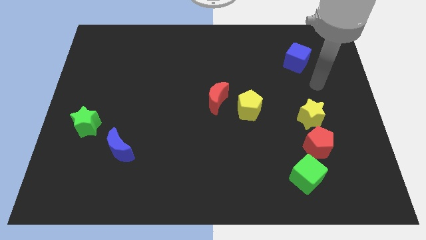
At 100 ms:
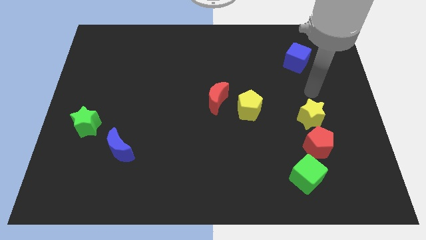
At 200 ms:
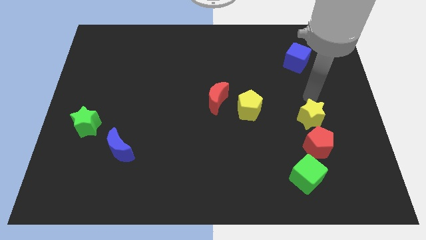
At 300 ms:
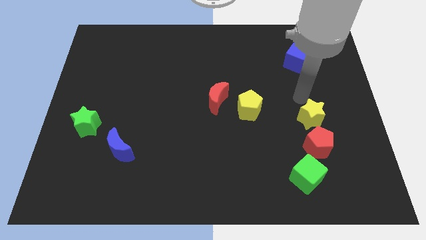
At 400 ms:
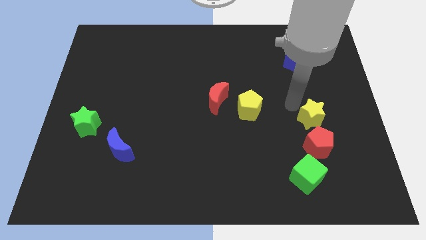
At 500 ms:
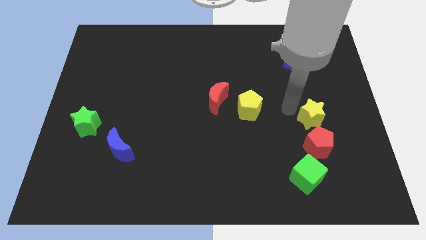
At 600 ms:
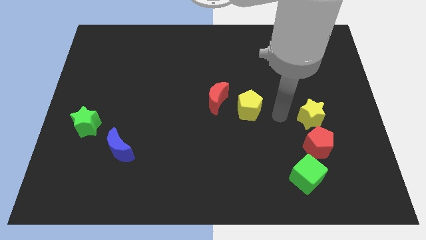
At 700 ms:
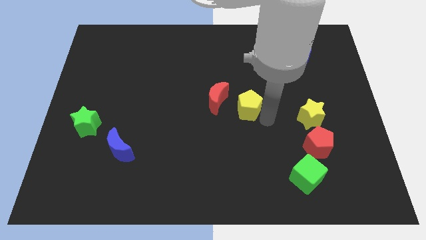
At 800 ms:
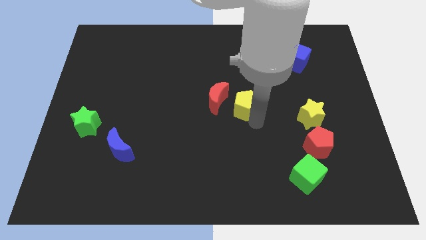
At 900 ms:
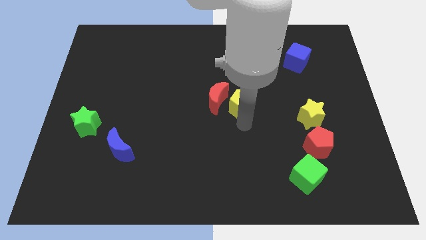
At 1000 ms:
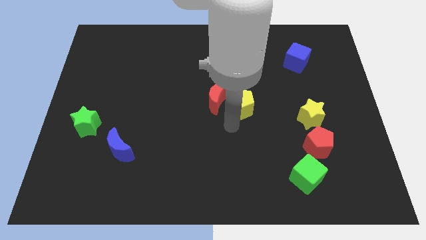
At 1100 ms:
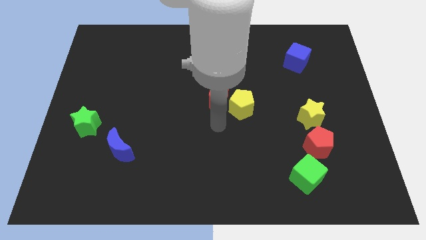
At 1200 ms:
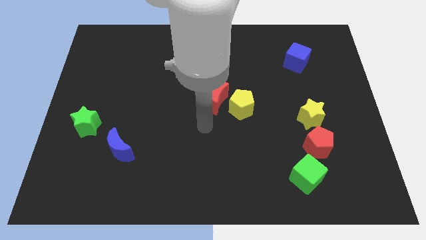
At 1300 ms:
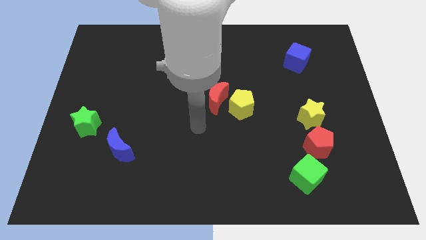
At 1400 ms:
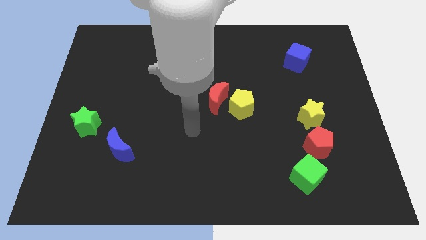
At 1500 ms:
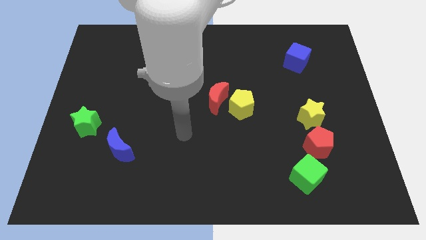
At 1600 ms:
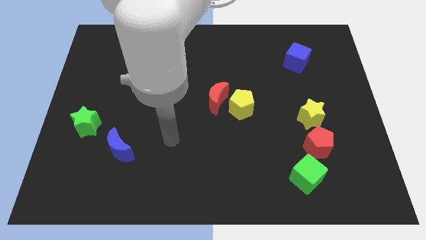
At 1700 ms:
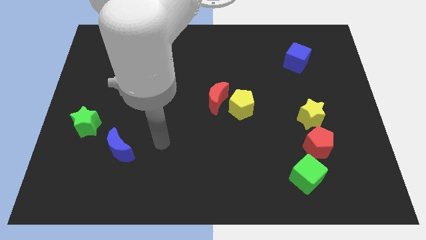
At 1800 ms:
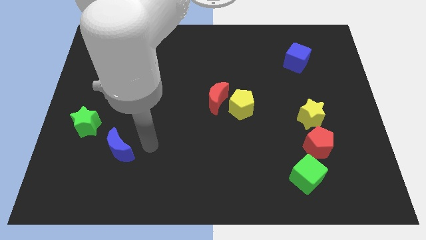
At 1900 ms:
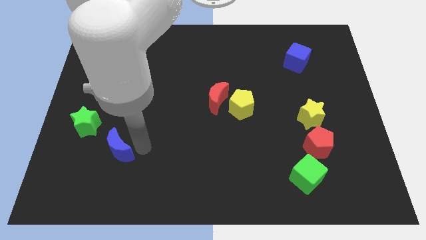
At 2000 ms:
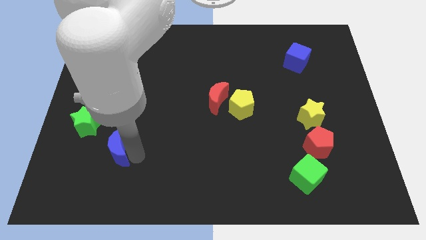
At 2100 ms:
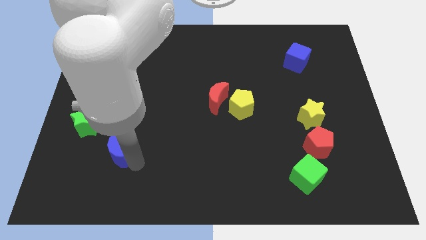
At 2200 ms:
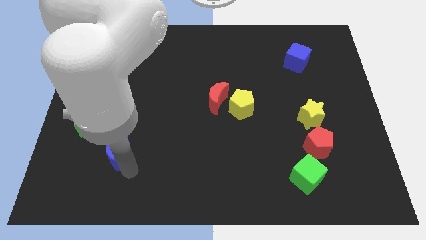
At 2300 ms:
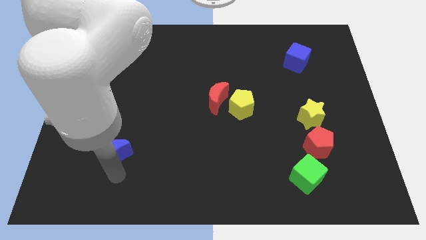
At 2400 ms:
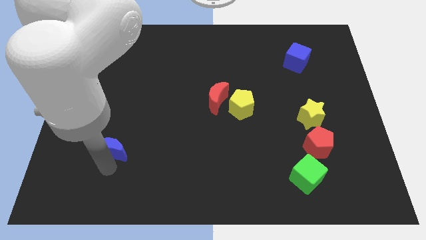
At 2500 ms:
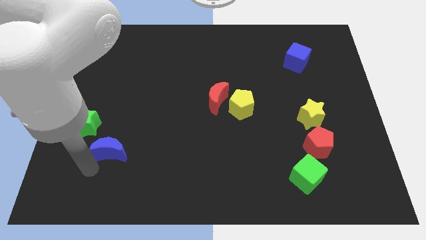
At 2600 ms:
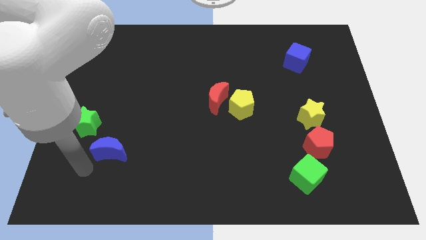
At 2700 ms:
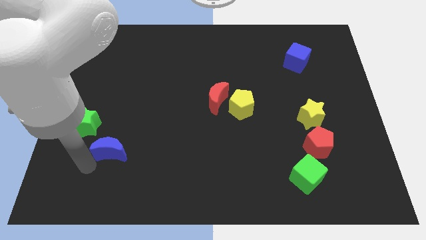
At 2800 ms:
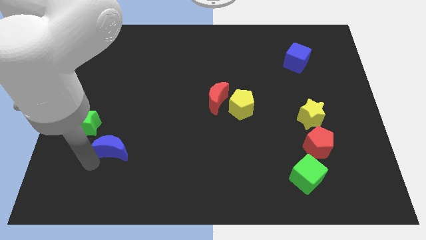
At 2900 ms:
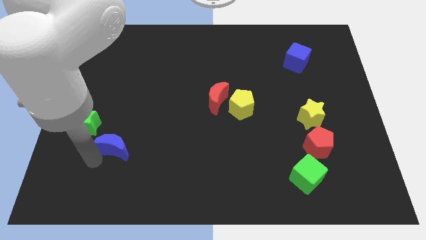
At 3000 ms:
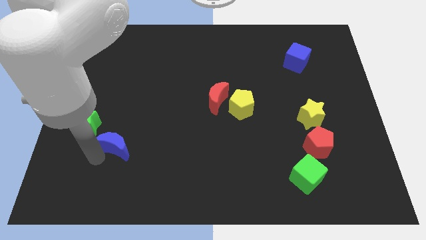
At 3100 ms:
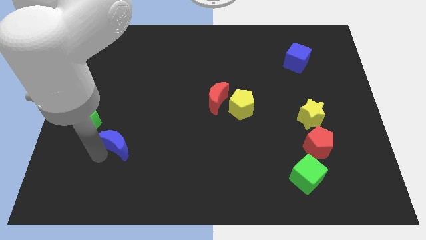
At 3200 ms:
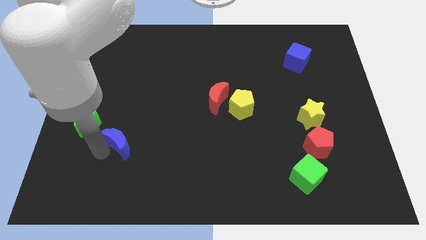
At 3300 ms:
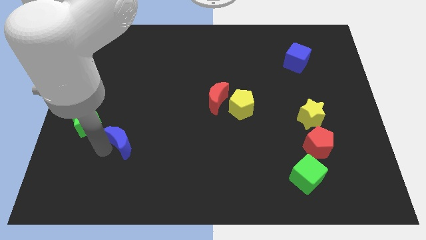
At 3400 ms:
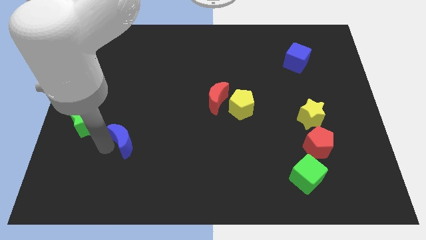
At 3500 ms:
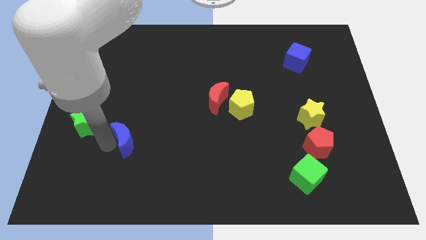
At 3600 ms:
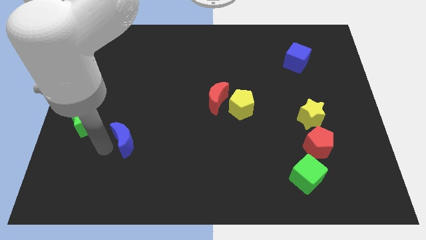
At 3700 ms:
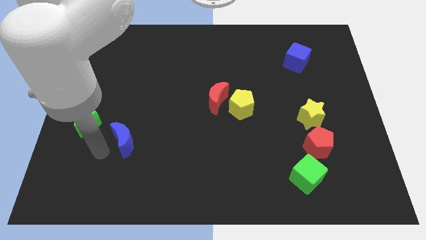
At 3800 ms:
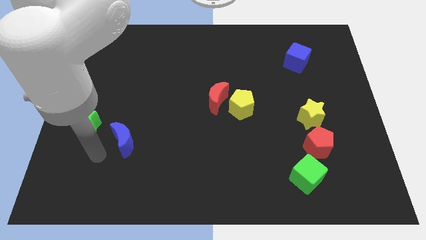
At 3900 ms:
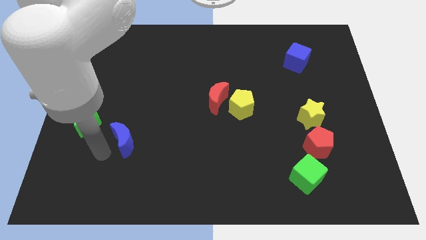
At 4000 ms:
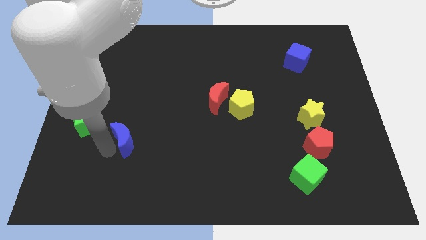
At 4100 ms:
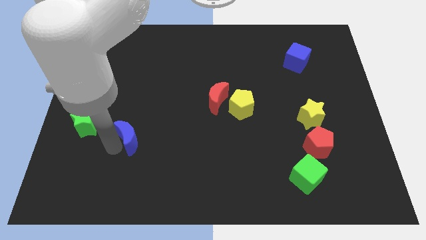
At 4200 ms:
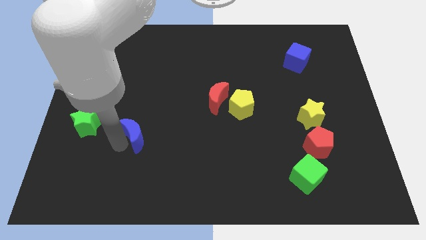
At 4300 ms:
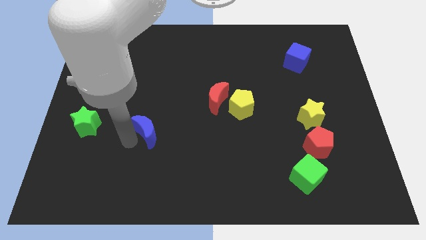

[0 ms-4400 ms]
push the blue moon a little bit upwards and then to the right

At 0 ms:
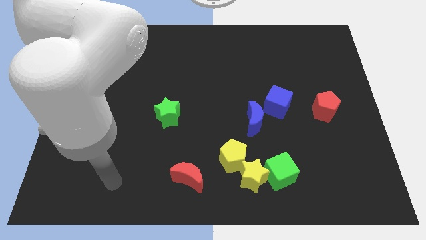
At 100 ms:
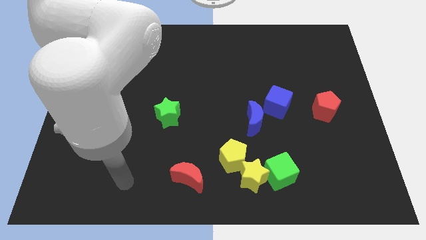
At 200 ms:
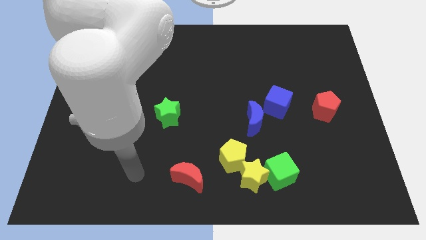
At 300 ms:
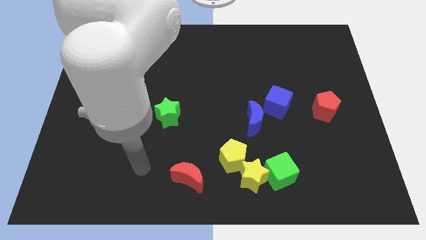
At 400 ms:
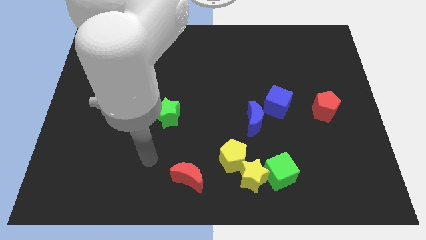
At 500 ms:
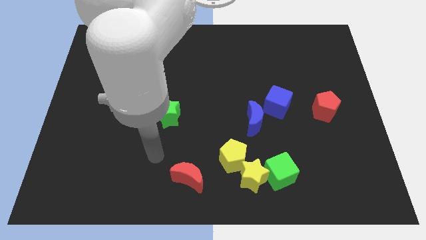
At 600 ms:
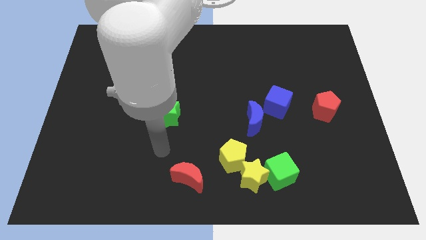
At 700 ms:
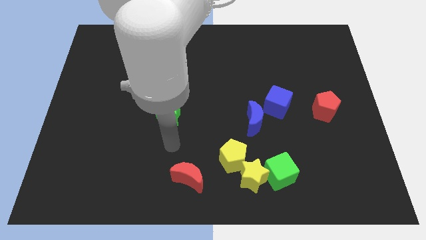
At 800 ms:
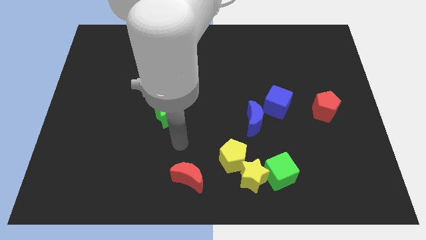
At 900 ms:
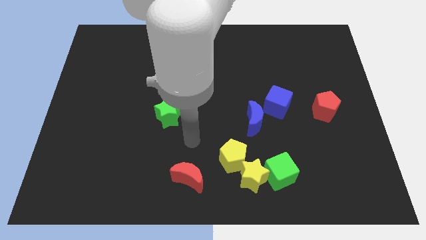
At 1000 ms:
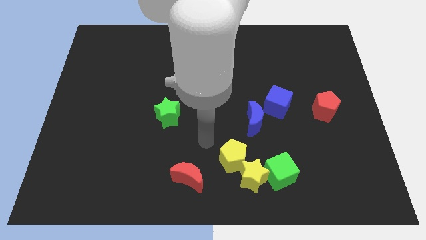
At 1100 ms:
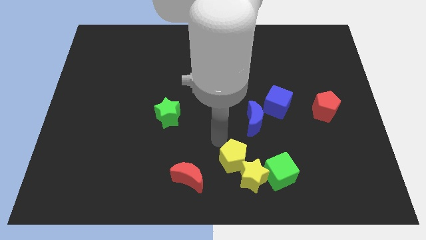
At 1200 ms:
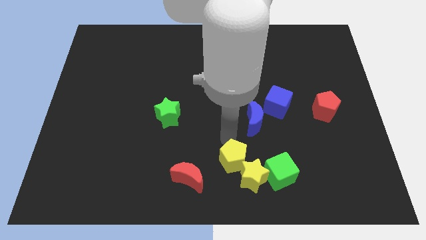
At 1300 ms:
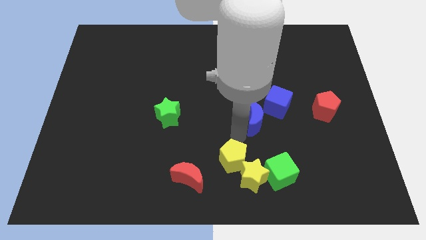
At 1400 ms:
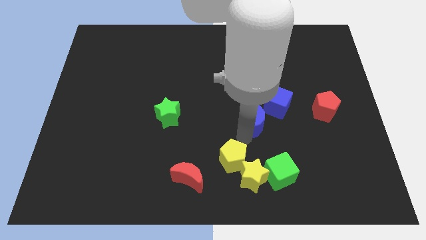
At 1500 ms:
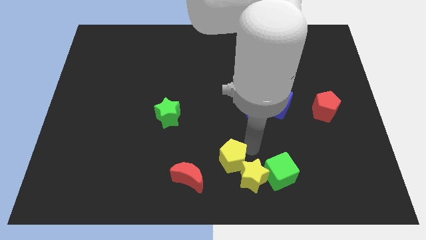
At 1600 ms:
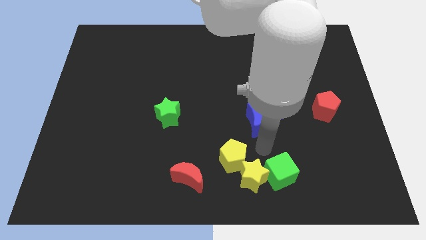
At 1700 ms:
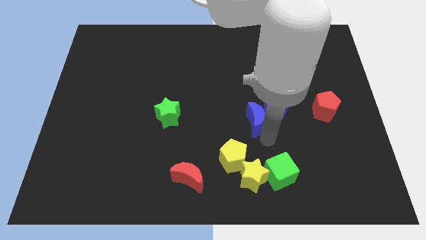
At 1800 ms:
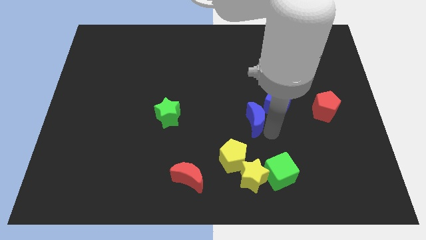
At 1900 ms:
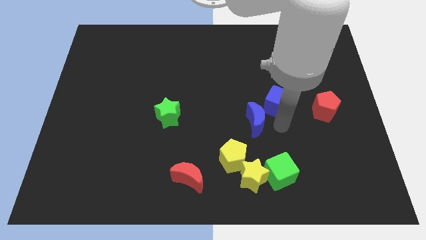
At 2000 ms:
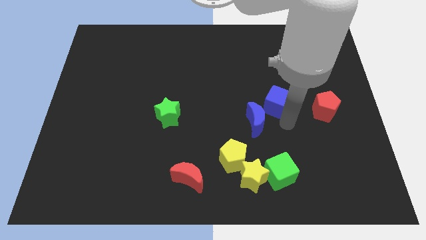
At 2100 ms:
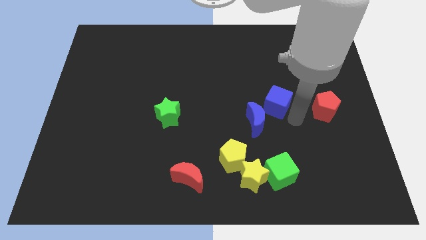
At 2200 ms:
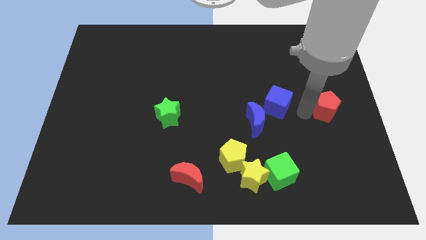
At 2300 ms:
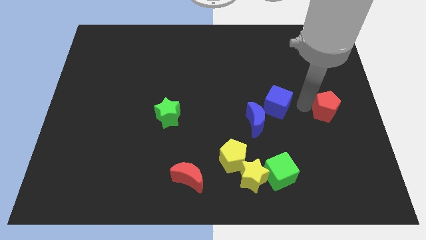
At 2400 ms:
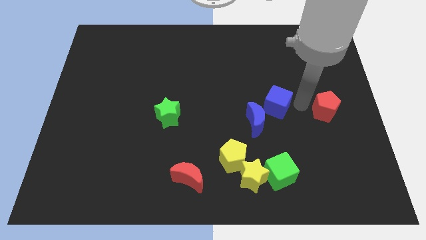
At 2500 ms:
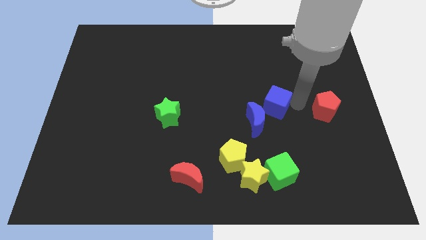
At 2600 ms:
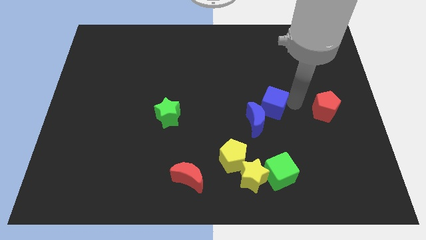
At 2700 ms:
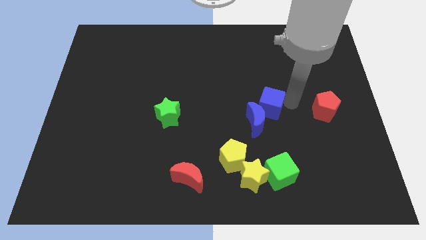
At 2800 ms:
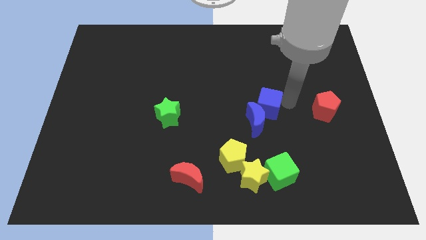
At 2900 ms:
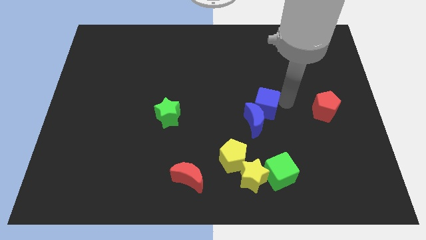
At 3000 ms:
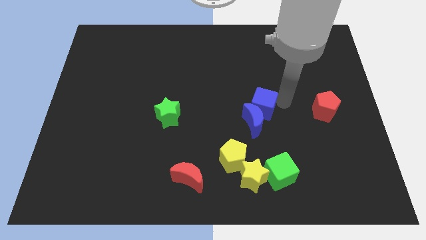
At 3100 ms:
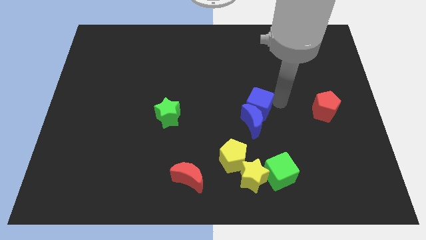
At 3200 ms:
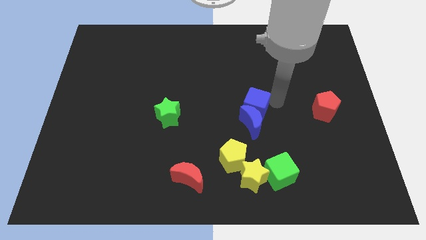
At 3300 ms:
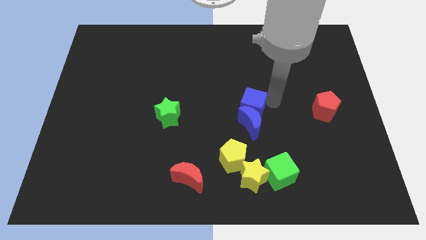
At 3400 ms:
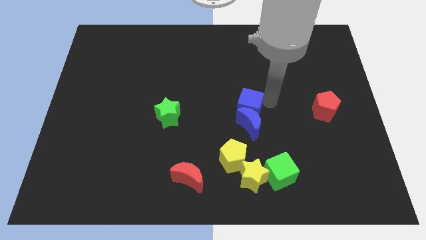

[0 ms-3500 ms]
slide the blue cube left a little bit

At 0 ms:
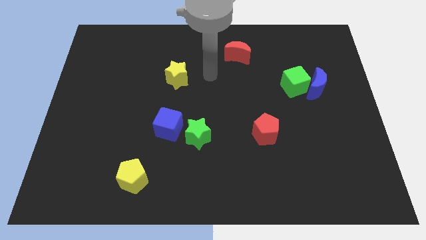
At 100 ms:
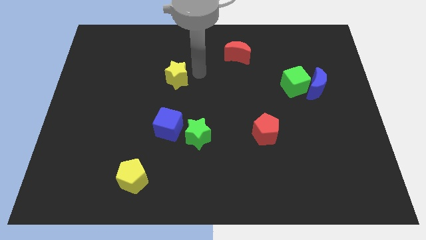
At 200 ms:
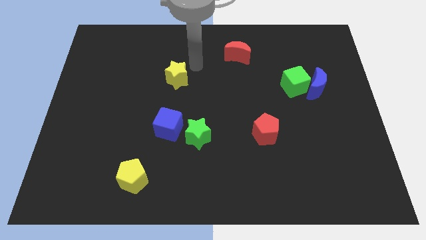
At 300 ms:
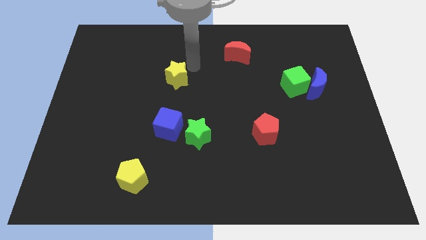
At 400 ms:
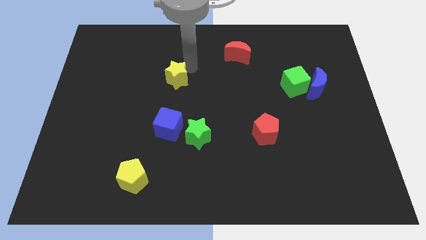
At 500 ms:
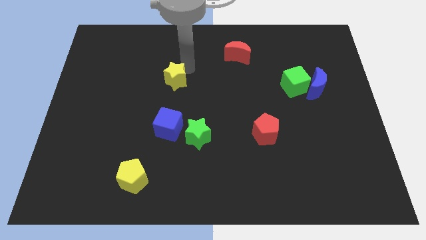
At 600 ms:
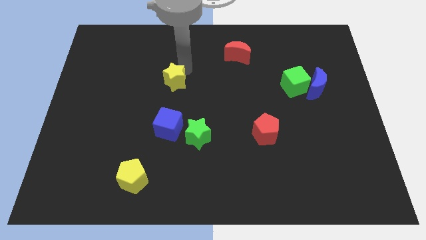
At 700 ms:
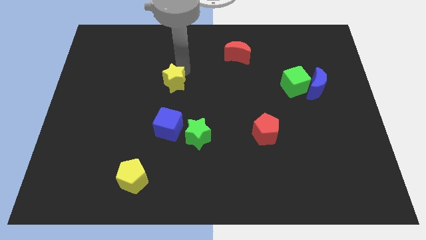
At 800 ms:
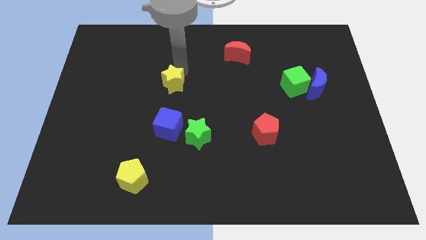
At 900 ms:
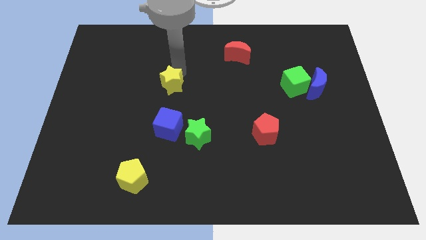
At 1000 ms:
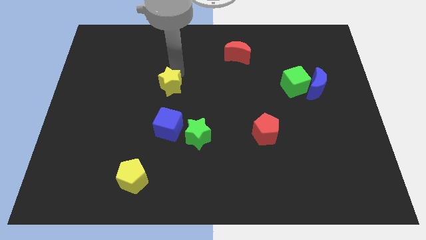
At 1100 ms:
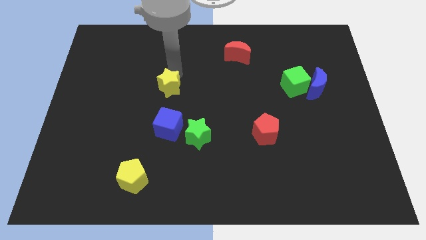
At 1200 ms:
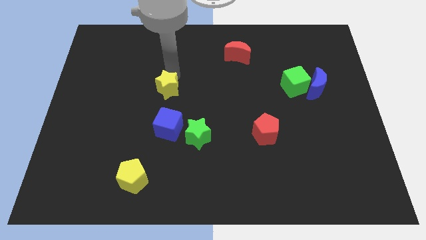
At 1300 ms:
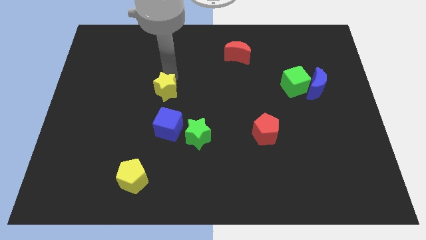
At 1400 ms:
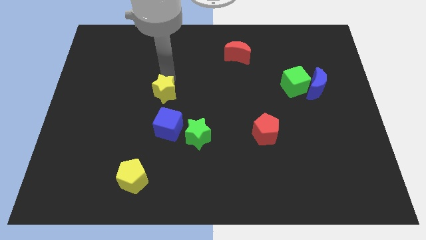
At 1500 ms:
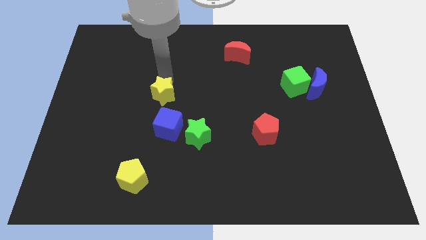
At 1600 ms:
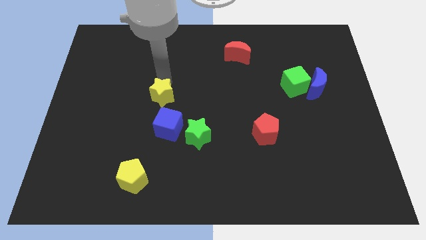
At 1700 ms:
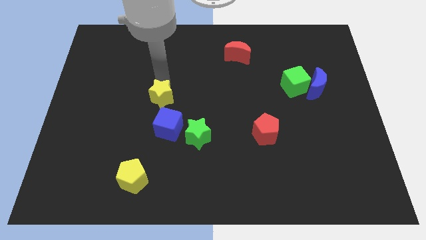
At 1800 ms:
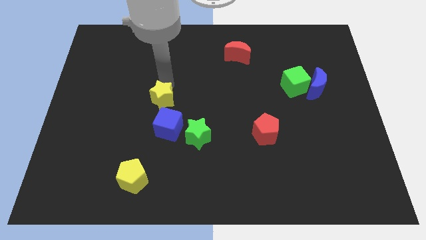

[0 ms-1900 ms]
move the yellow star a little diagonally downwards and left
